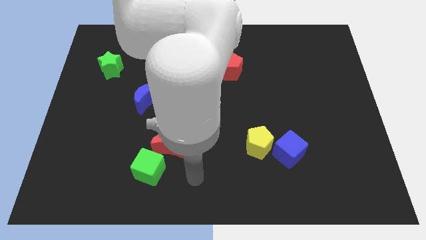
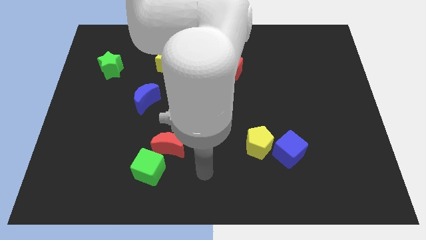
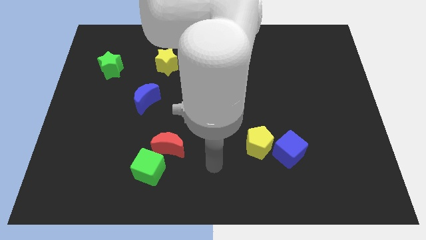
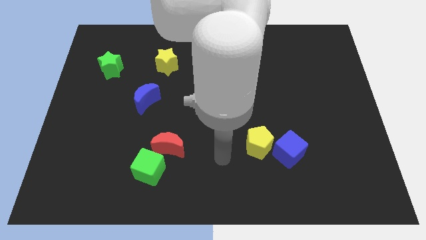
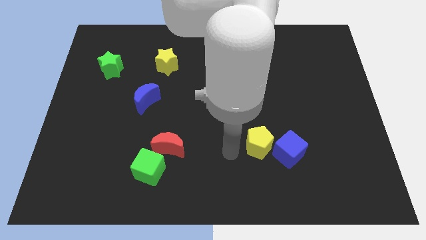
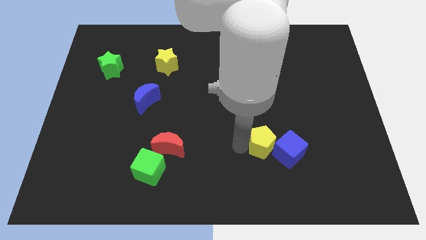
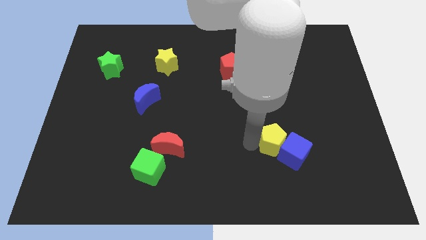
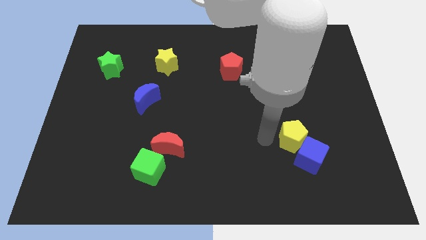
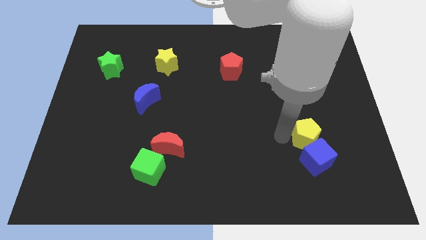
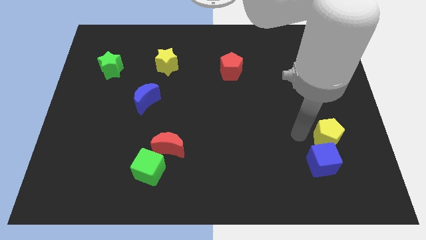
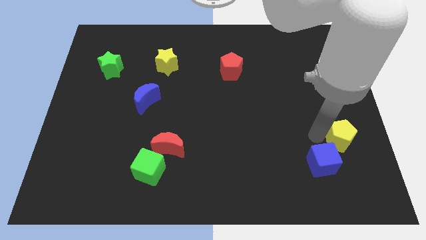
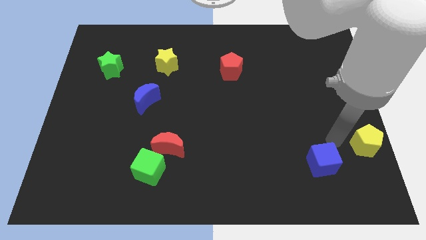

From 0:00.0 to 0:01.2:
separate the blue cube from the yellow pentagon

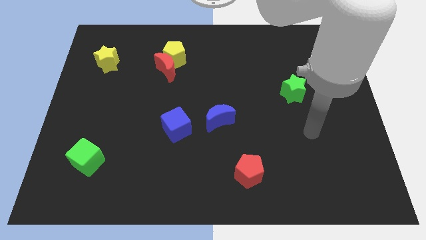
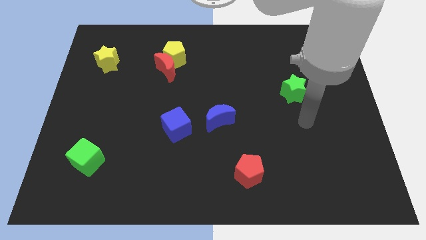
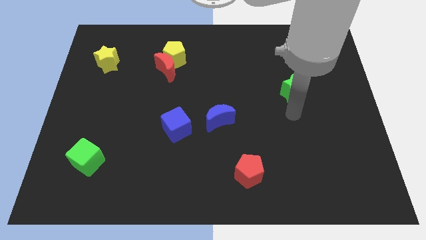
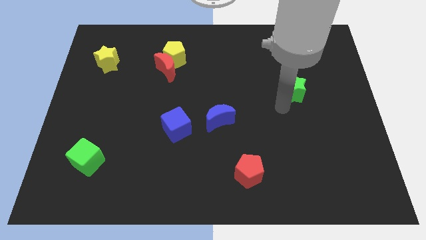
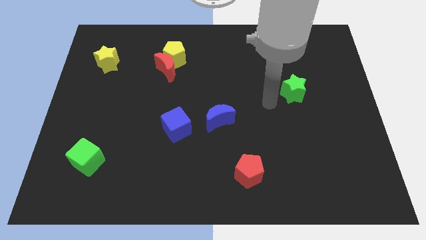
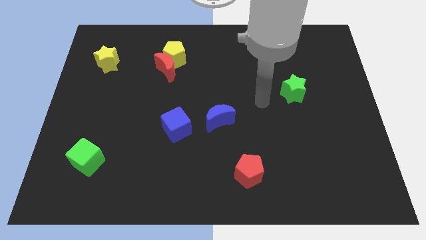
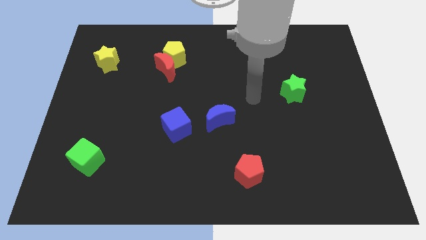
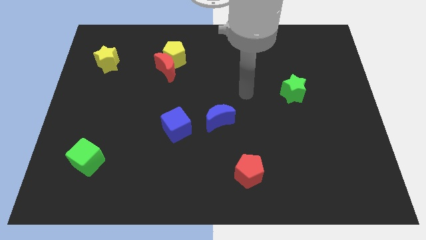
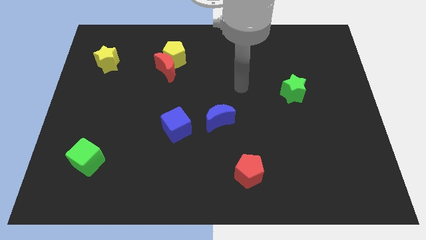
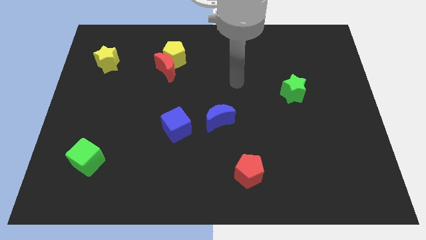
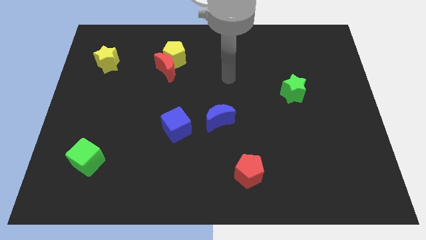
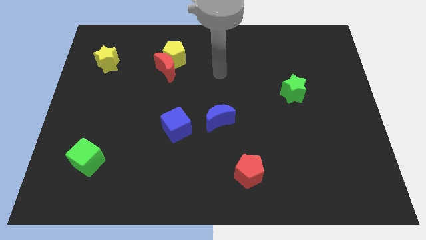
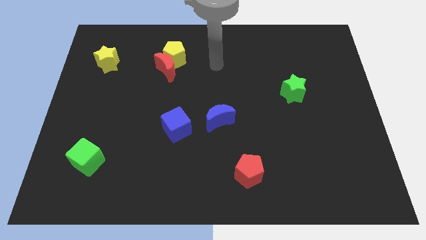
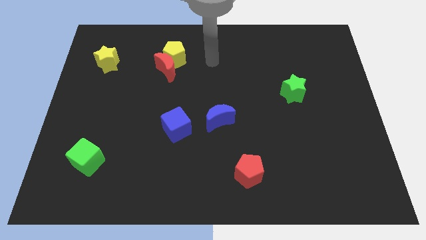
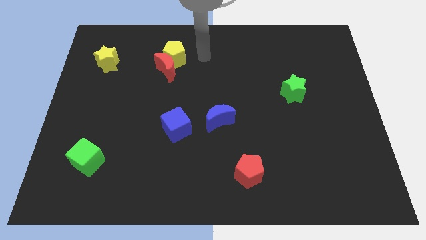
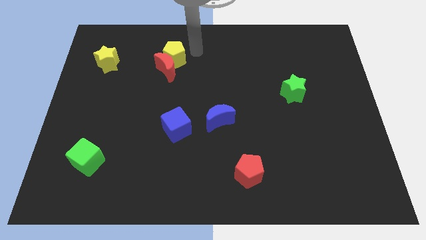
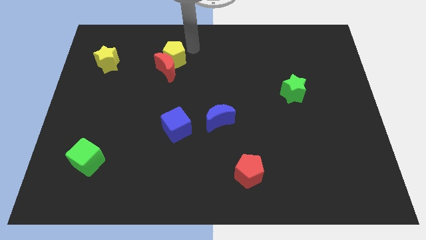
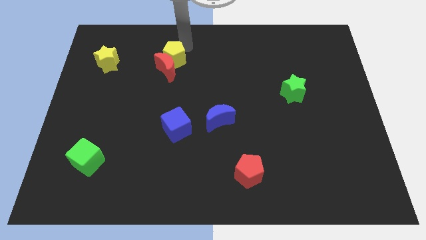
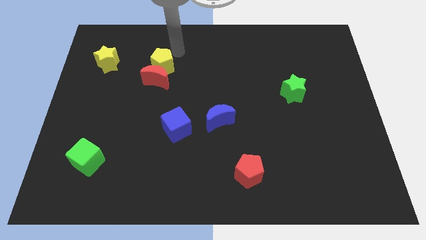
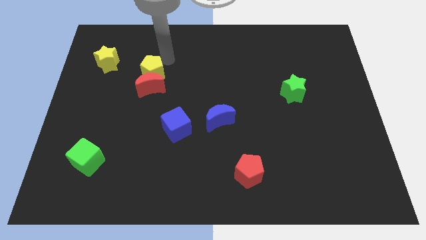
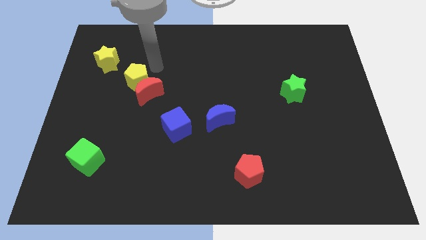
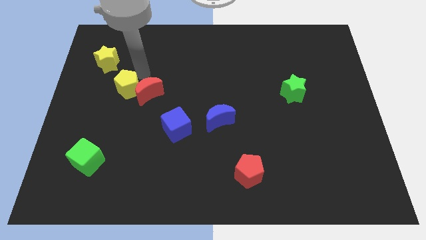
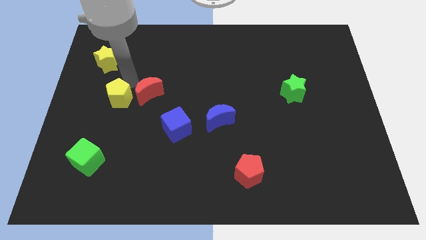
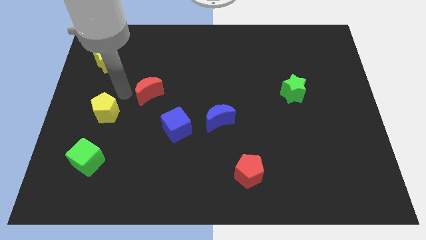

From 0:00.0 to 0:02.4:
pull the red moon apart from the yellow pentagon

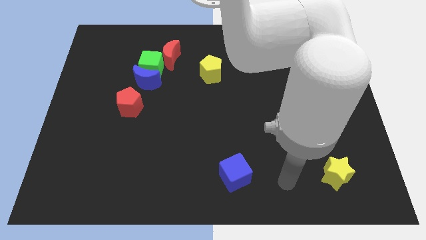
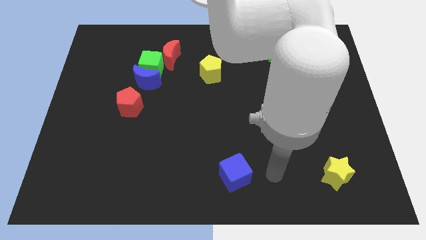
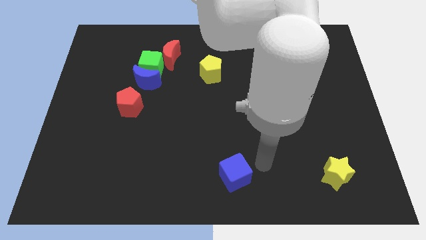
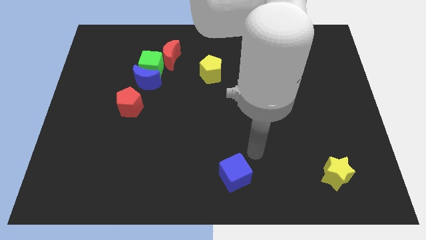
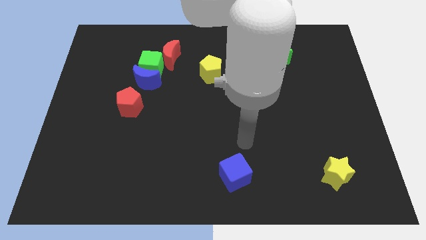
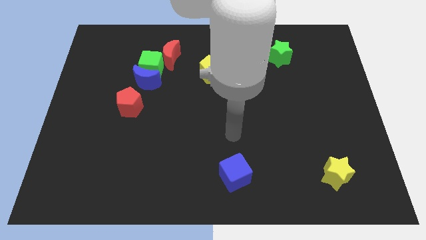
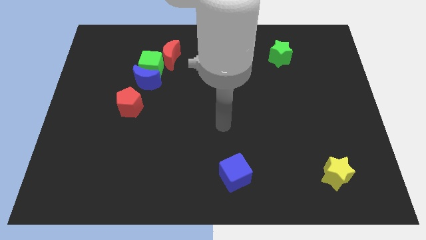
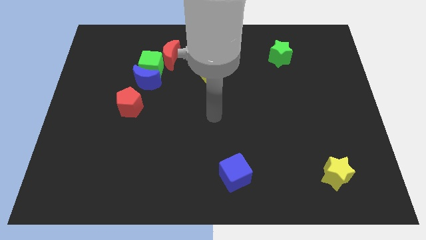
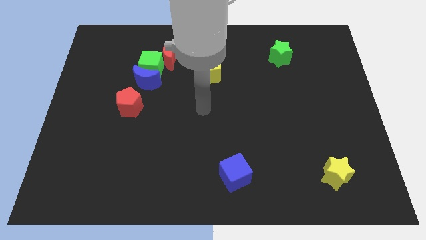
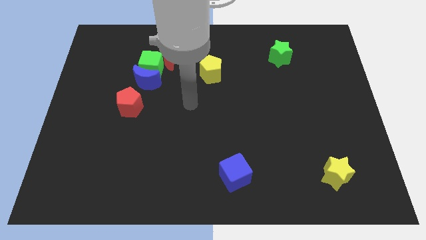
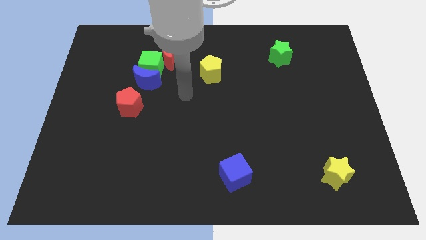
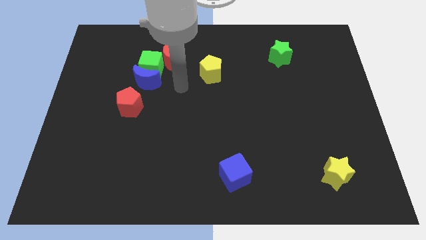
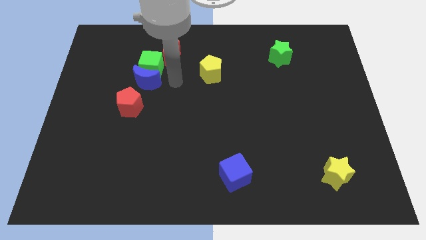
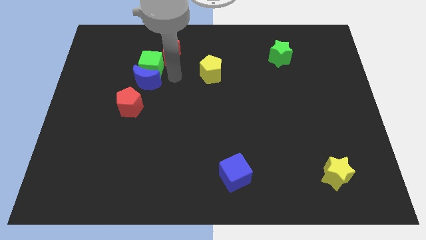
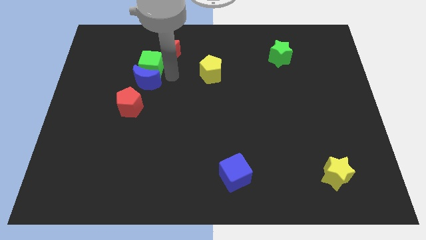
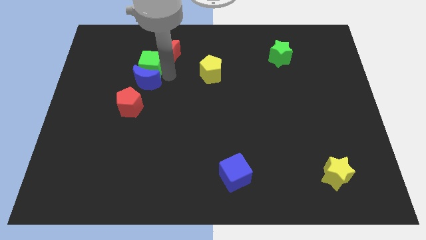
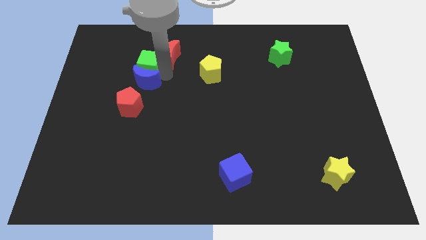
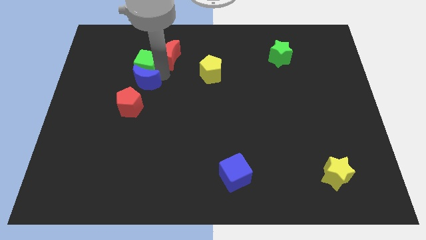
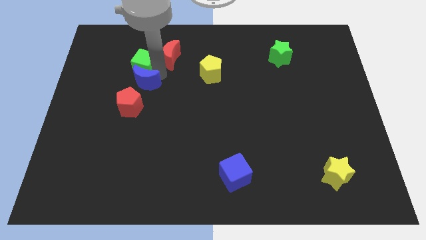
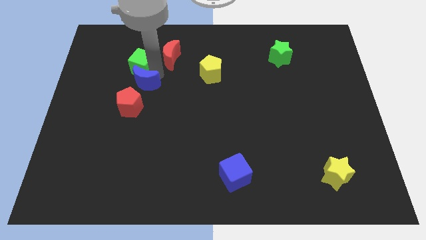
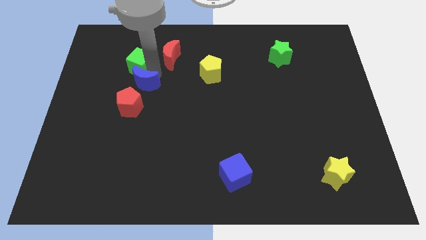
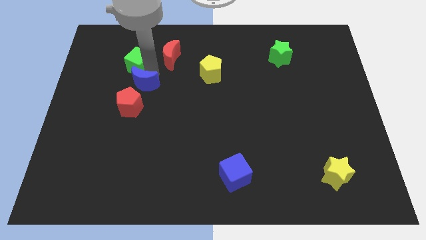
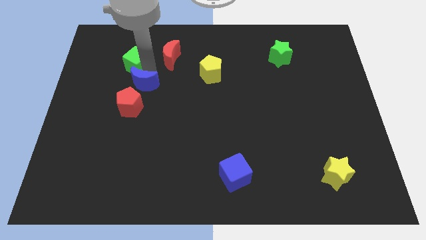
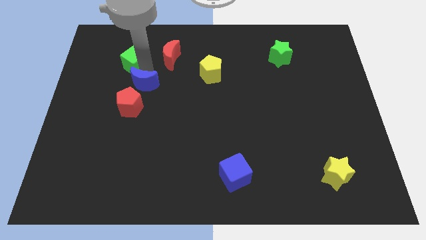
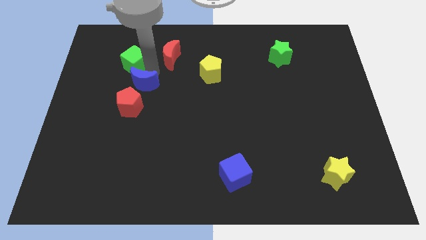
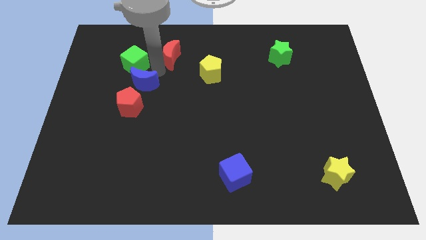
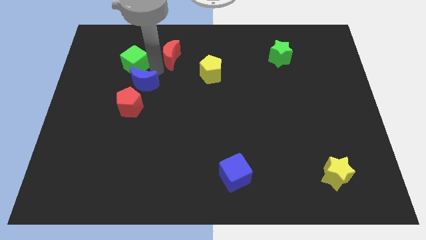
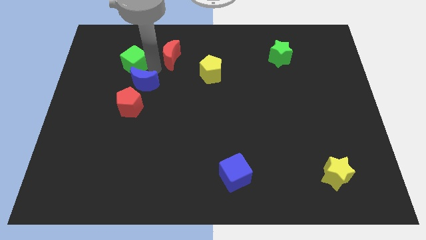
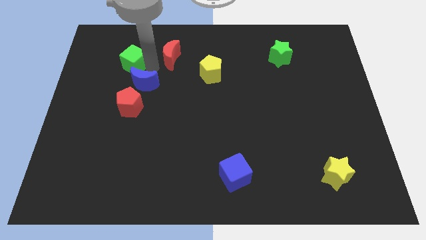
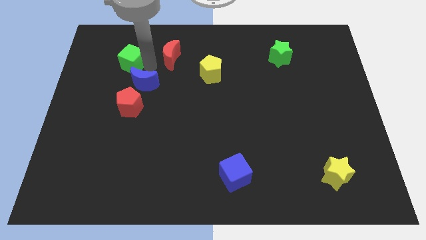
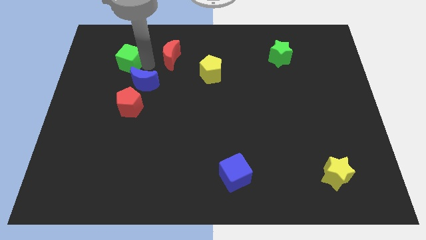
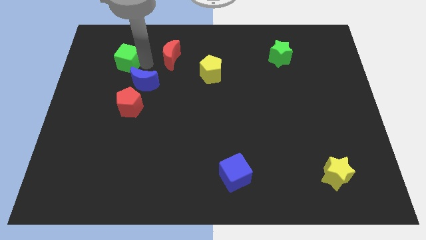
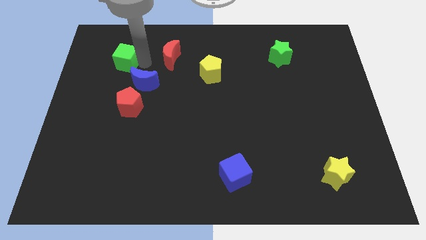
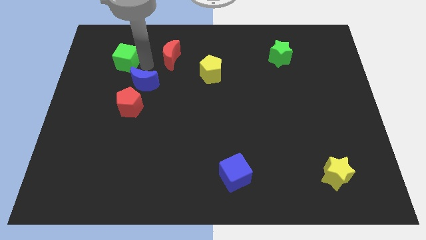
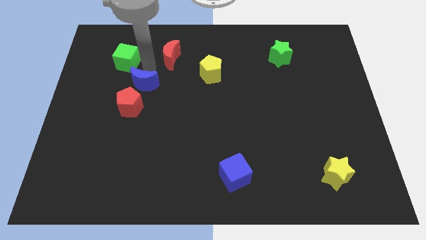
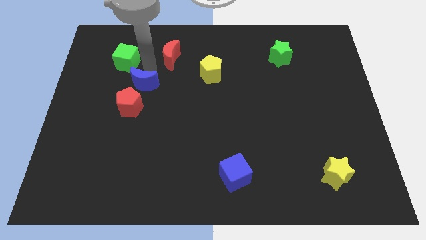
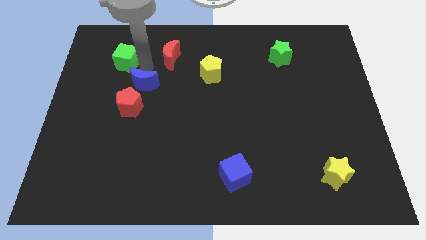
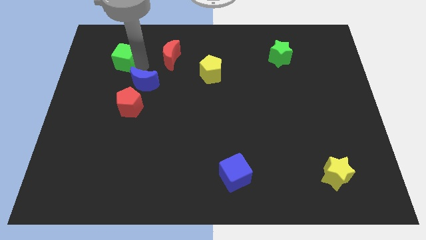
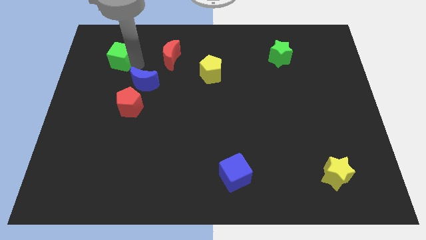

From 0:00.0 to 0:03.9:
move the green cube away from the blue moon and red moon

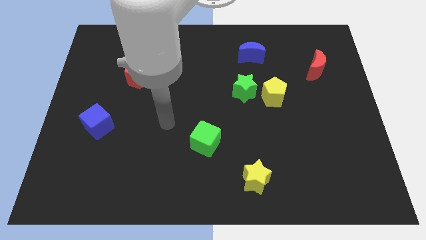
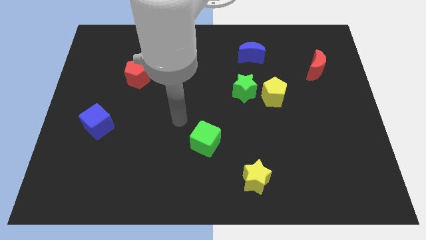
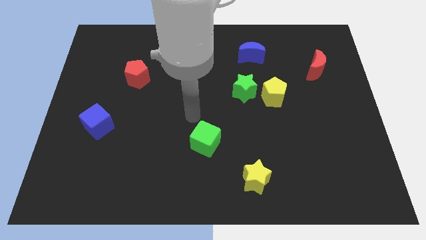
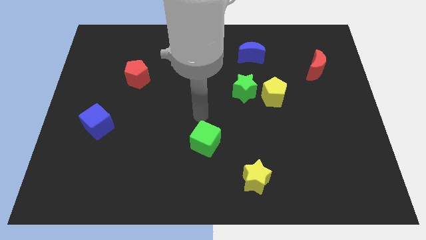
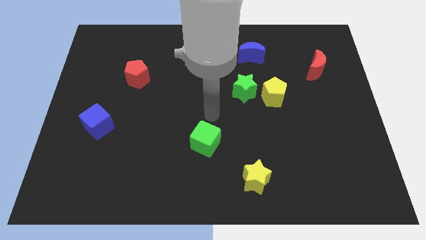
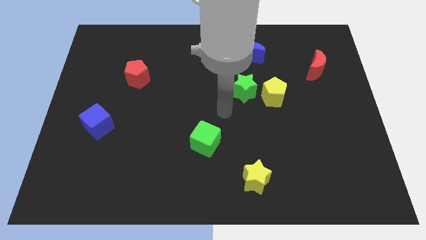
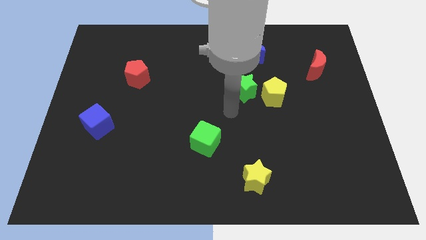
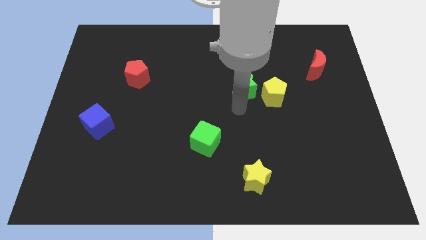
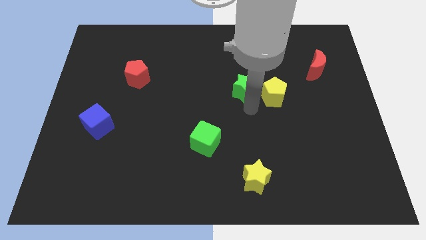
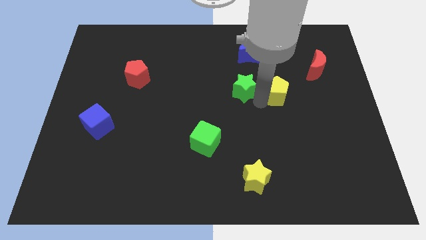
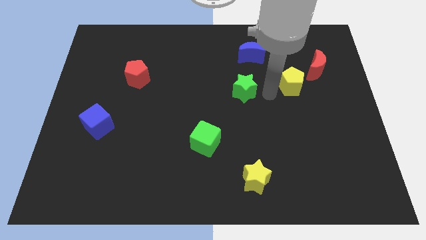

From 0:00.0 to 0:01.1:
separate the green star from the yellow pentagon

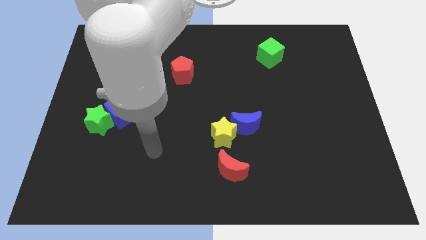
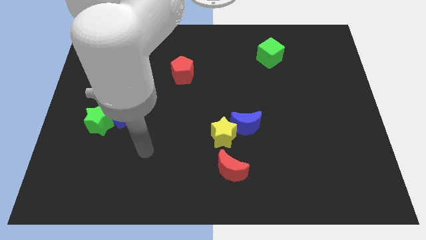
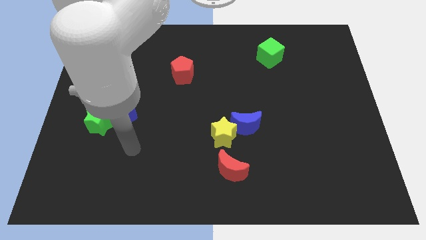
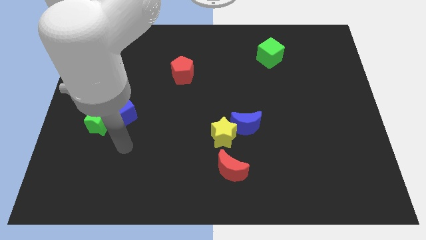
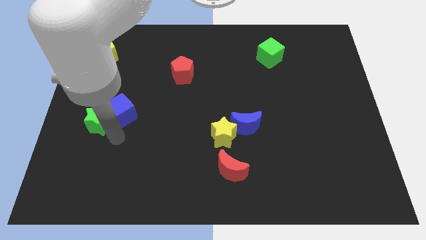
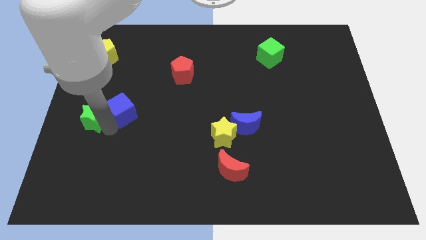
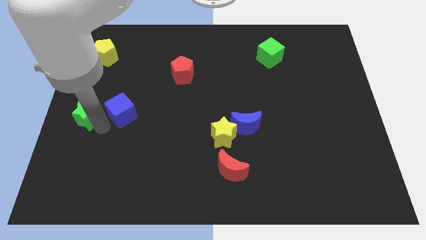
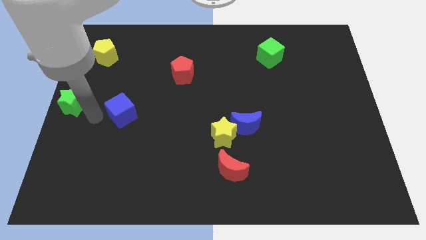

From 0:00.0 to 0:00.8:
pull the blue cube apart from the green star
